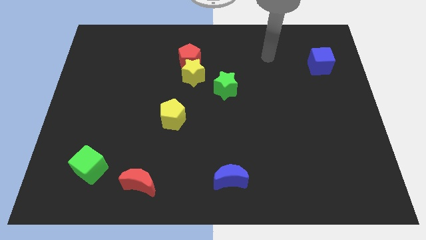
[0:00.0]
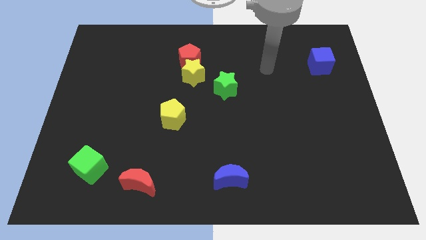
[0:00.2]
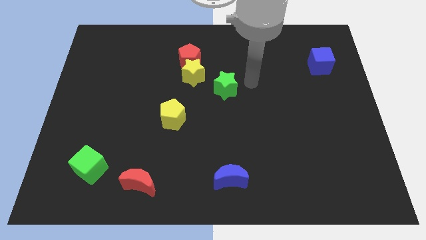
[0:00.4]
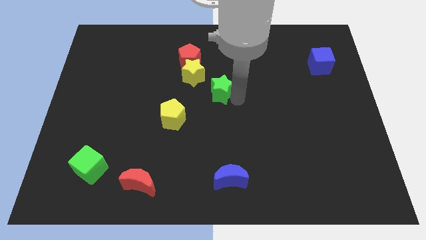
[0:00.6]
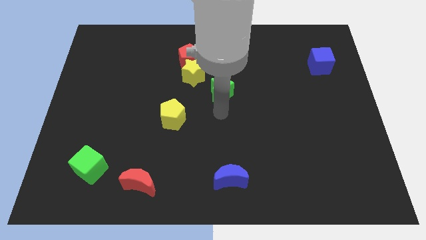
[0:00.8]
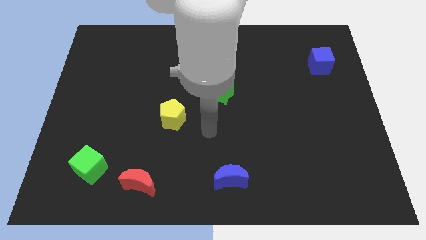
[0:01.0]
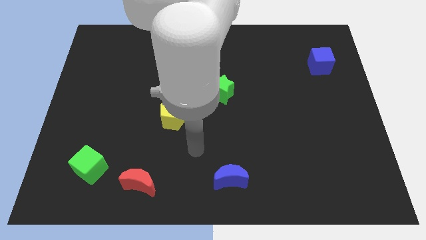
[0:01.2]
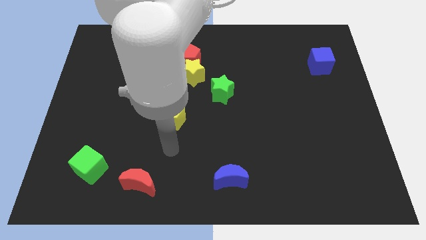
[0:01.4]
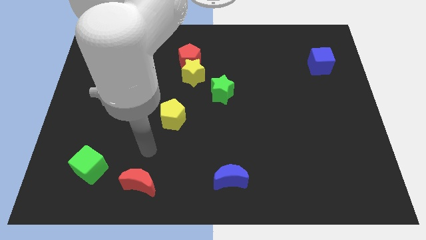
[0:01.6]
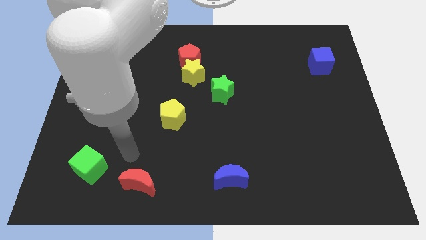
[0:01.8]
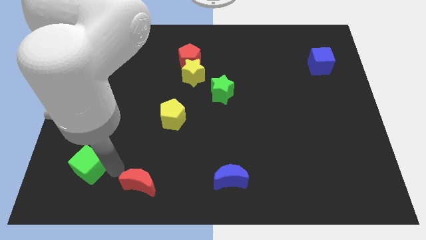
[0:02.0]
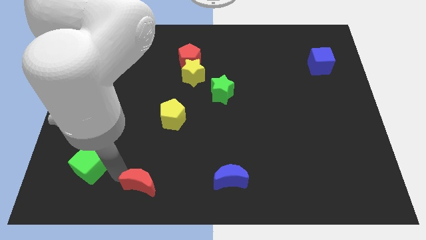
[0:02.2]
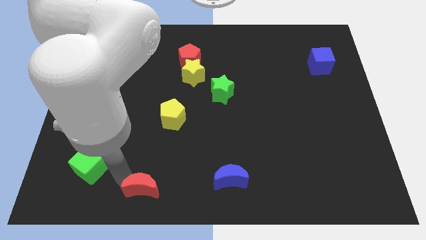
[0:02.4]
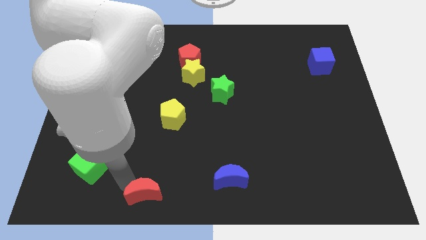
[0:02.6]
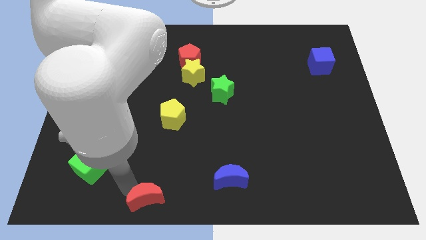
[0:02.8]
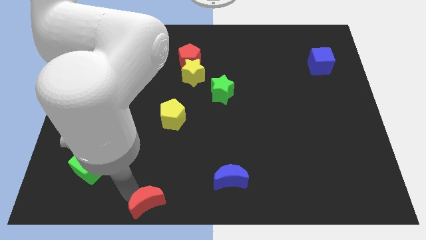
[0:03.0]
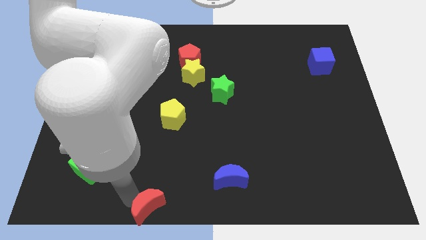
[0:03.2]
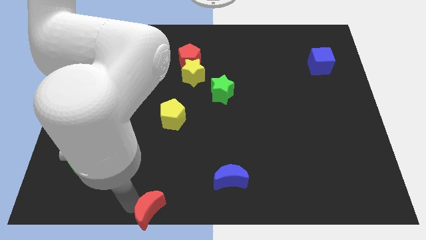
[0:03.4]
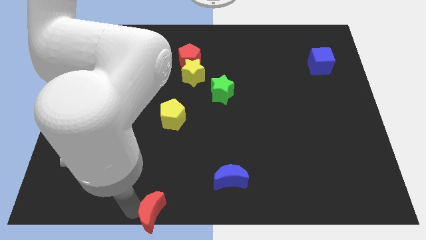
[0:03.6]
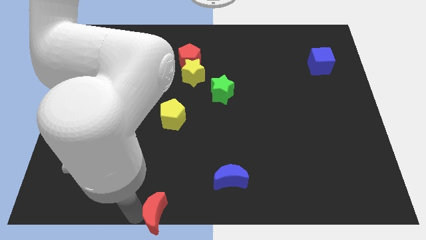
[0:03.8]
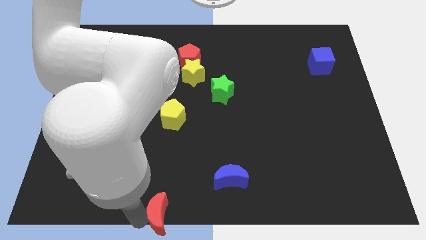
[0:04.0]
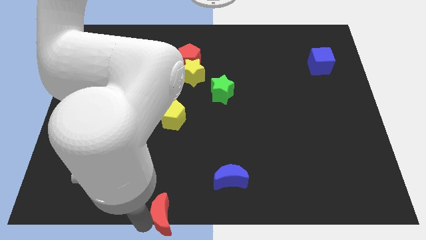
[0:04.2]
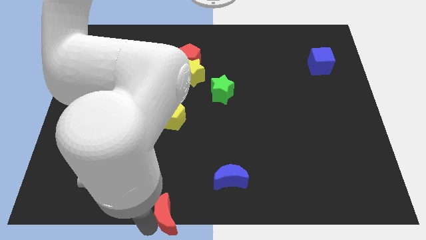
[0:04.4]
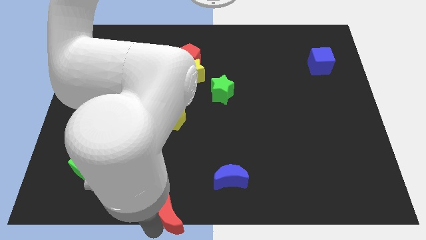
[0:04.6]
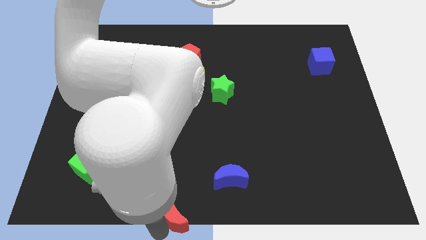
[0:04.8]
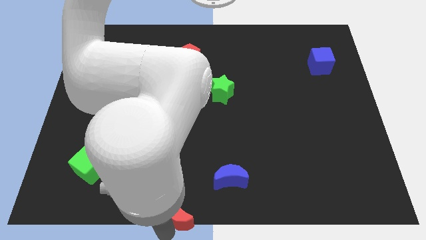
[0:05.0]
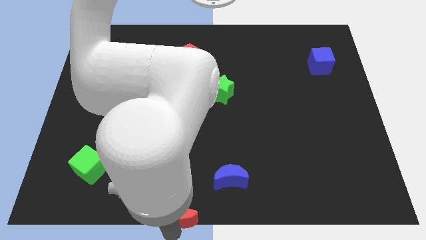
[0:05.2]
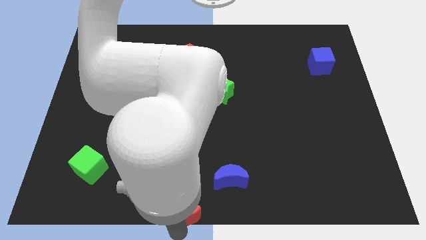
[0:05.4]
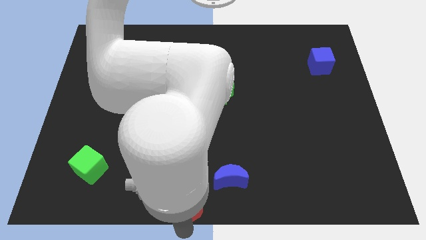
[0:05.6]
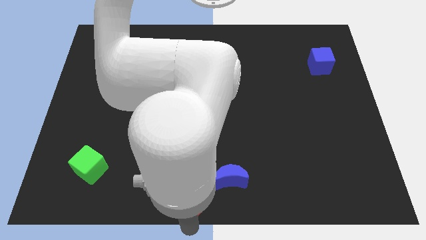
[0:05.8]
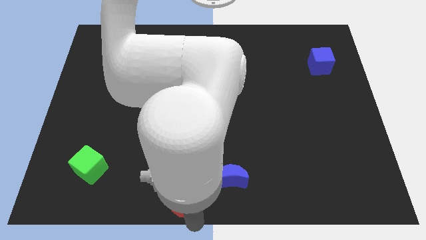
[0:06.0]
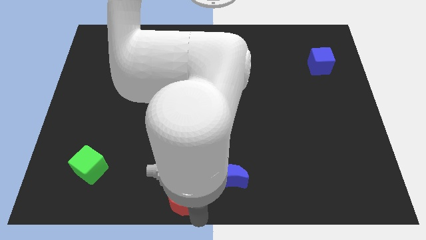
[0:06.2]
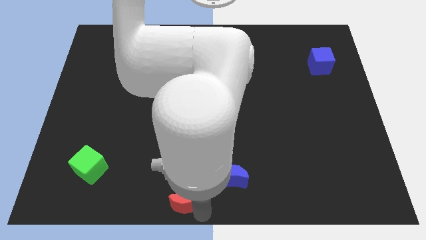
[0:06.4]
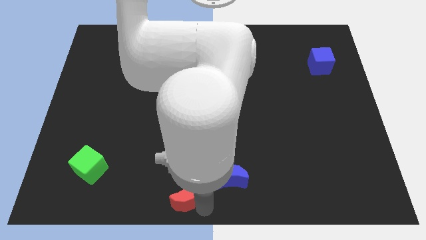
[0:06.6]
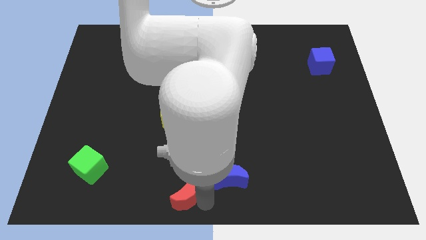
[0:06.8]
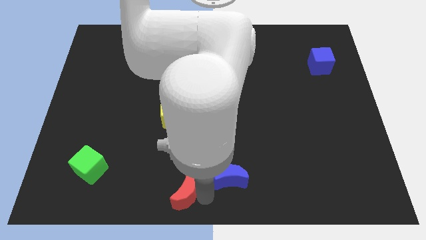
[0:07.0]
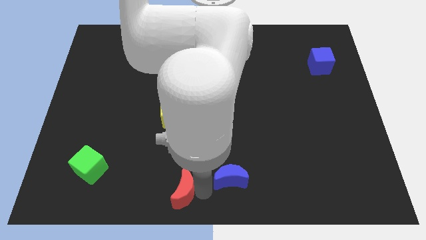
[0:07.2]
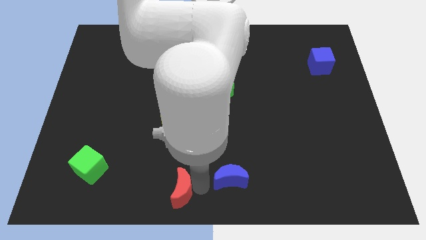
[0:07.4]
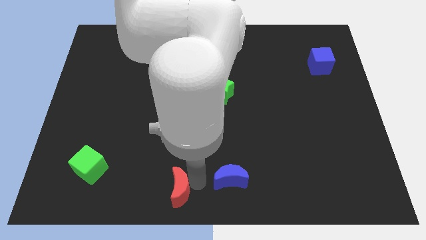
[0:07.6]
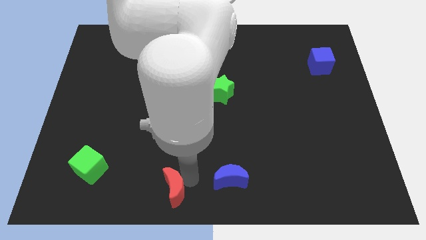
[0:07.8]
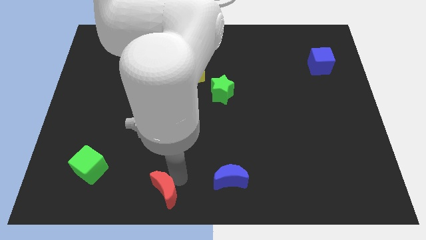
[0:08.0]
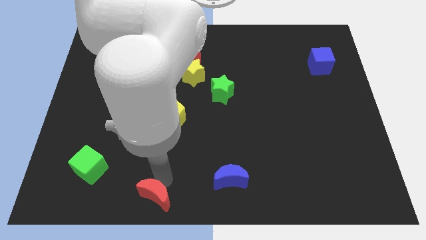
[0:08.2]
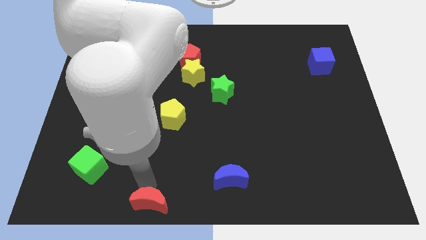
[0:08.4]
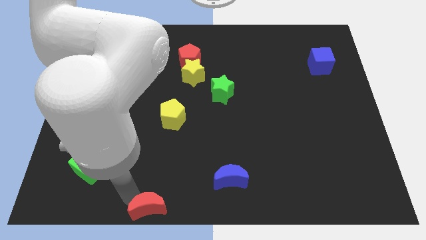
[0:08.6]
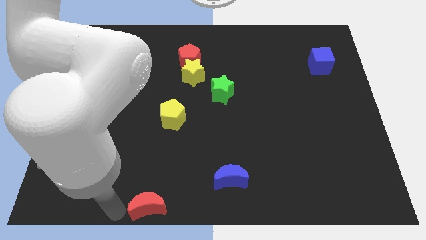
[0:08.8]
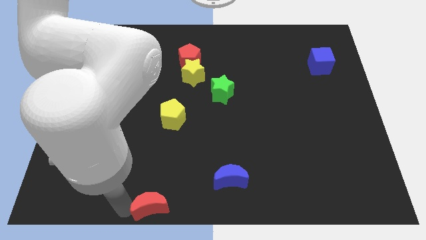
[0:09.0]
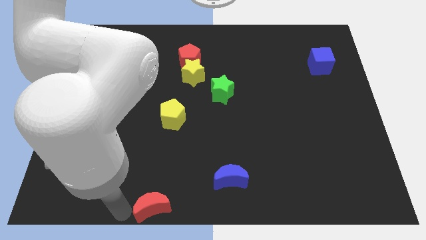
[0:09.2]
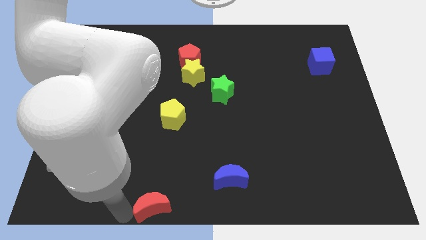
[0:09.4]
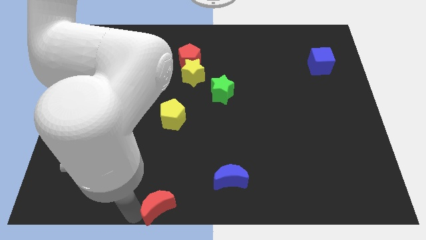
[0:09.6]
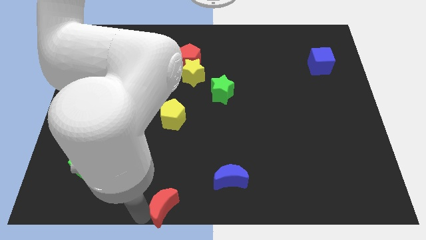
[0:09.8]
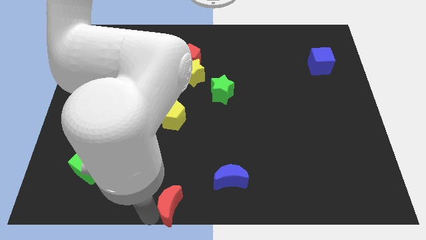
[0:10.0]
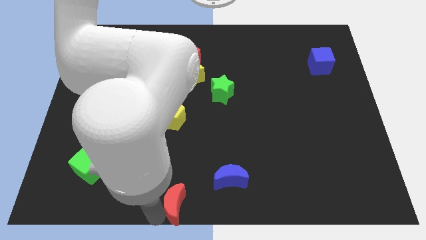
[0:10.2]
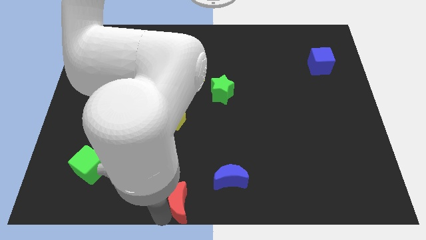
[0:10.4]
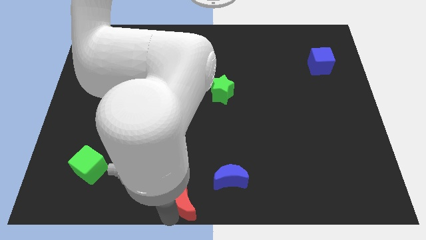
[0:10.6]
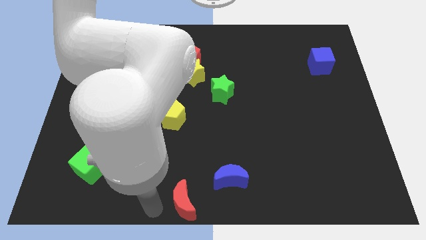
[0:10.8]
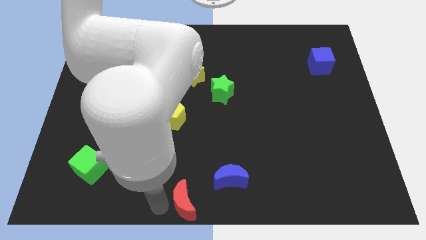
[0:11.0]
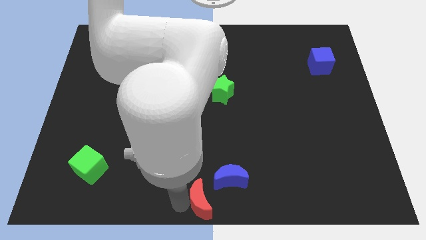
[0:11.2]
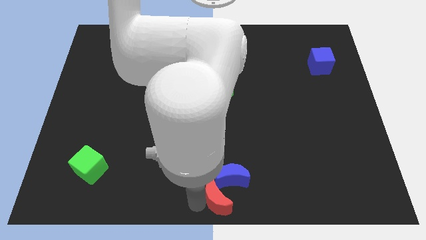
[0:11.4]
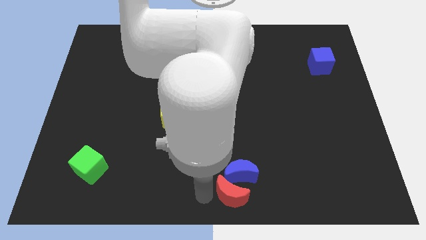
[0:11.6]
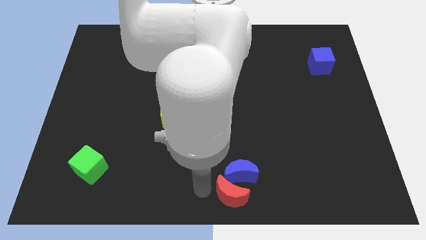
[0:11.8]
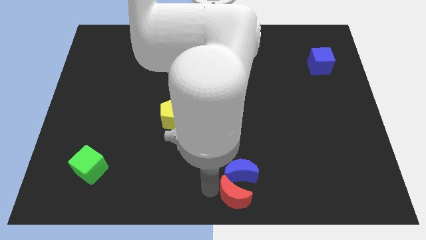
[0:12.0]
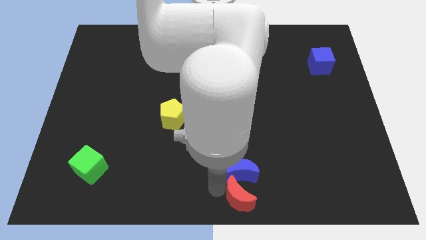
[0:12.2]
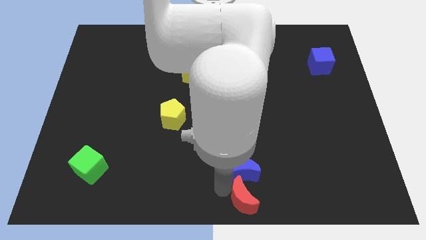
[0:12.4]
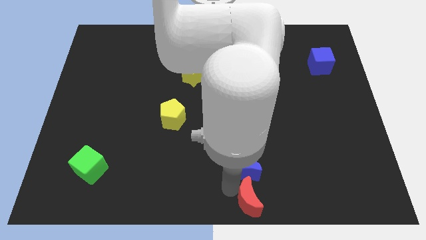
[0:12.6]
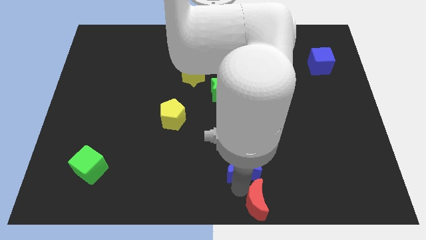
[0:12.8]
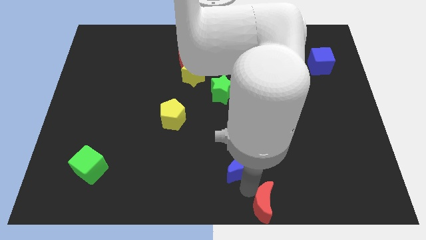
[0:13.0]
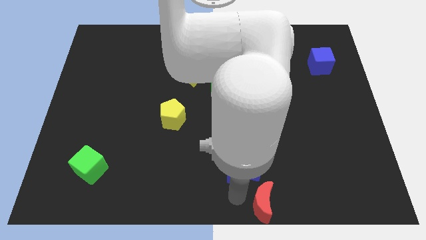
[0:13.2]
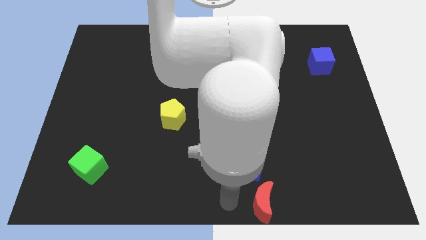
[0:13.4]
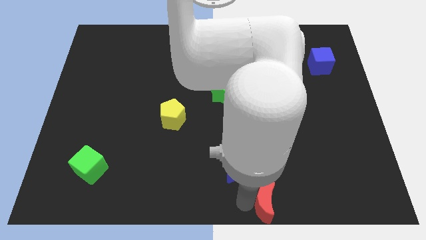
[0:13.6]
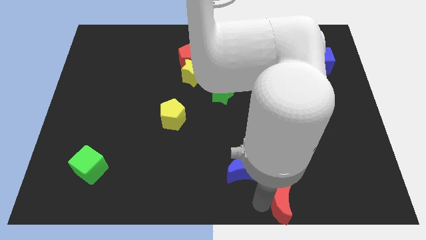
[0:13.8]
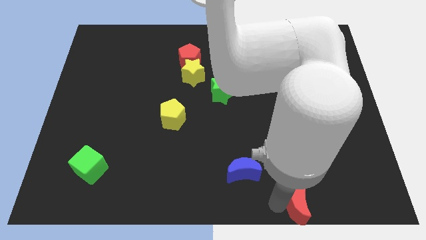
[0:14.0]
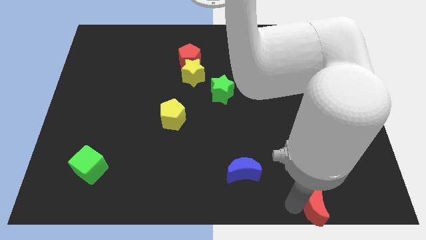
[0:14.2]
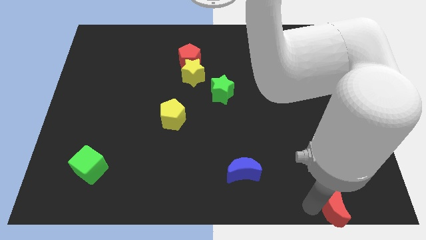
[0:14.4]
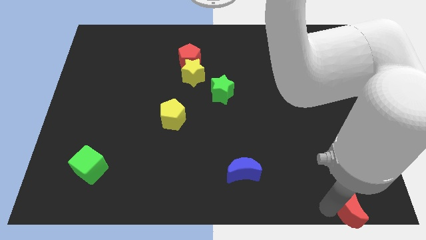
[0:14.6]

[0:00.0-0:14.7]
move the red moon to the lower right corner
